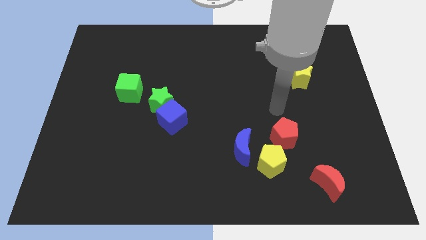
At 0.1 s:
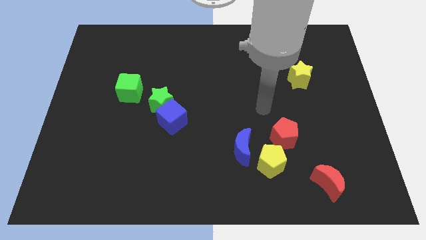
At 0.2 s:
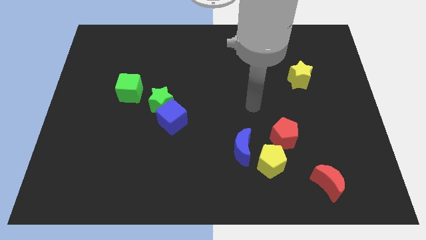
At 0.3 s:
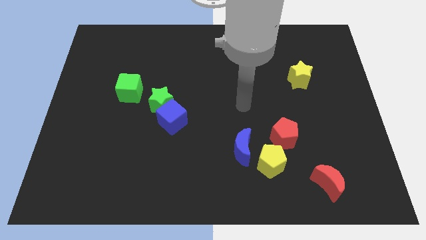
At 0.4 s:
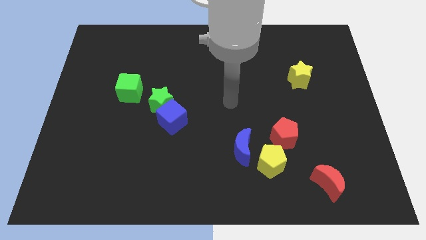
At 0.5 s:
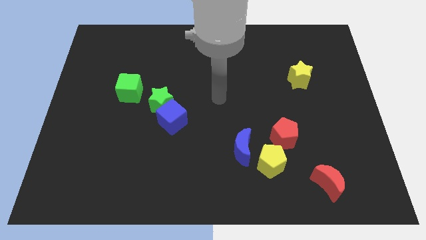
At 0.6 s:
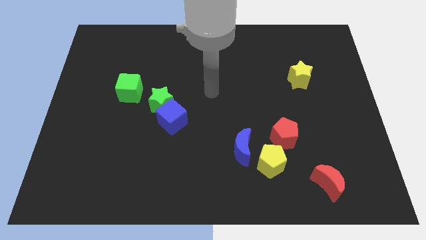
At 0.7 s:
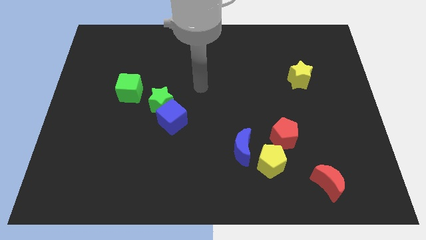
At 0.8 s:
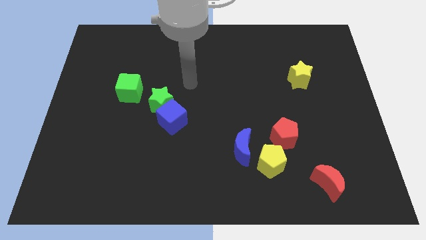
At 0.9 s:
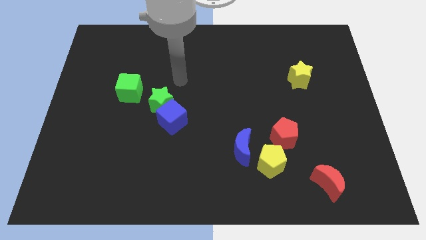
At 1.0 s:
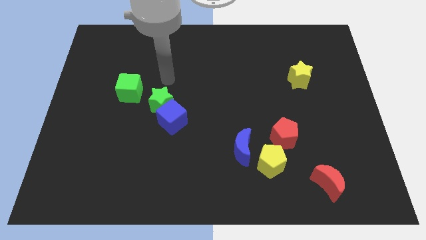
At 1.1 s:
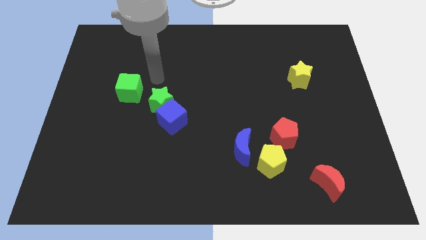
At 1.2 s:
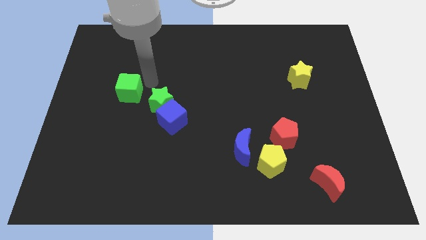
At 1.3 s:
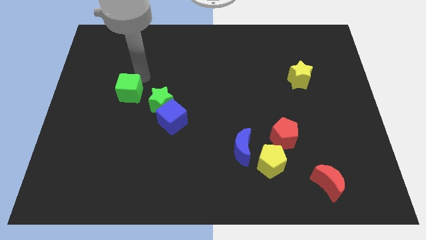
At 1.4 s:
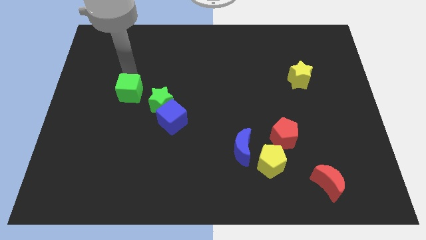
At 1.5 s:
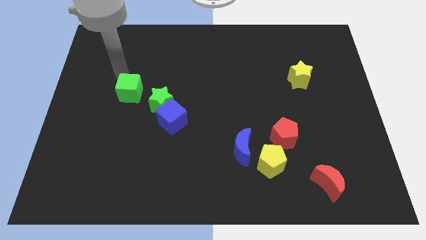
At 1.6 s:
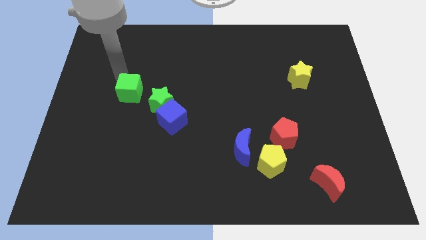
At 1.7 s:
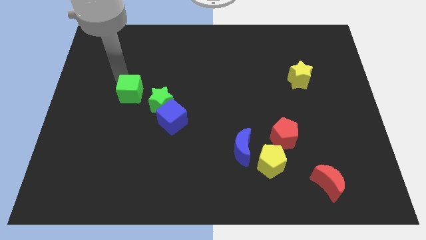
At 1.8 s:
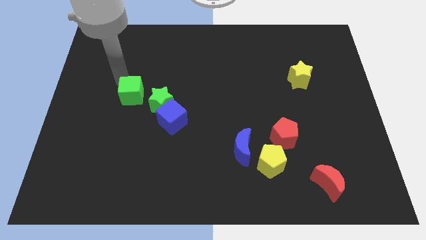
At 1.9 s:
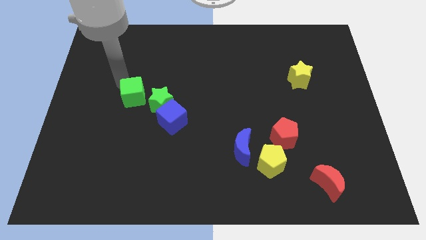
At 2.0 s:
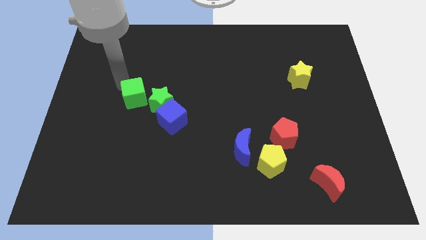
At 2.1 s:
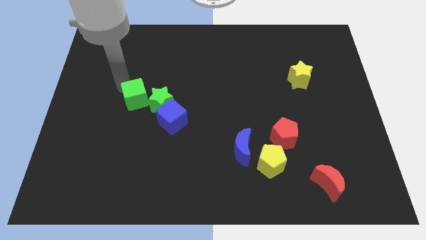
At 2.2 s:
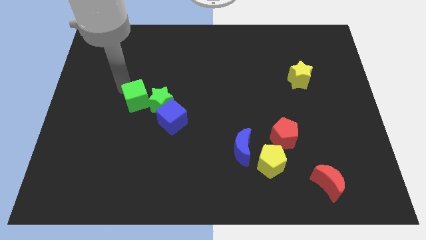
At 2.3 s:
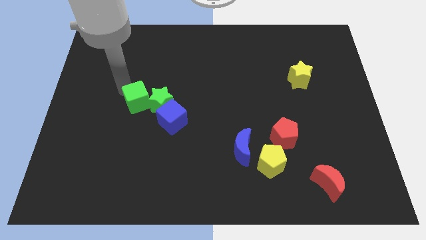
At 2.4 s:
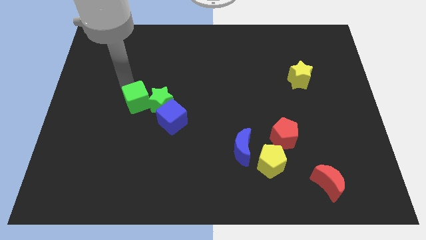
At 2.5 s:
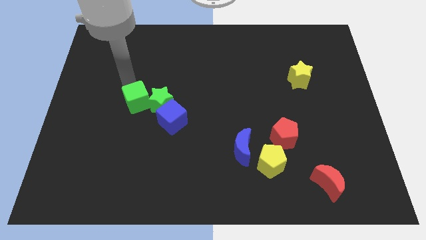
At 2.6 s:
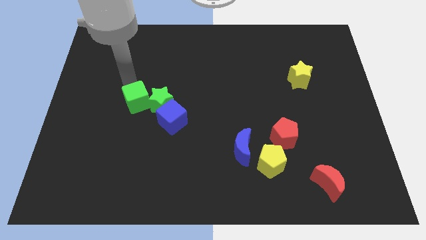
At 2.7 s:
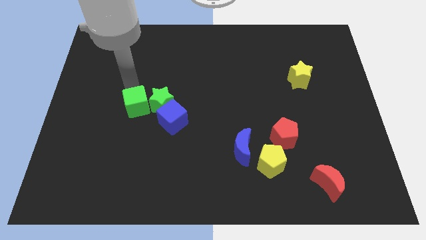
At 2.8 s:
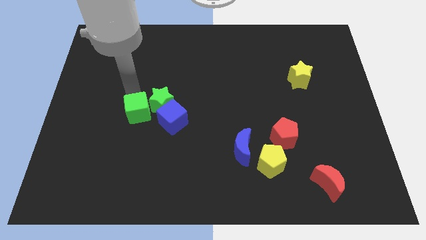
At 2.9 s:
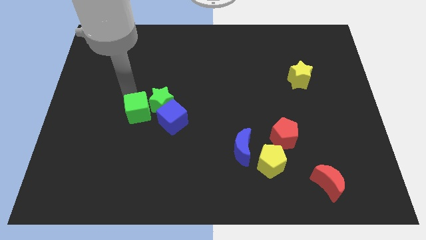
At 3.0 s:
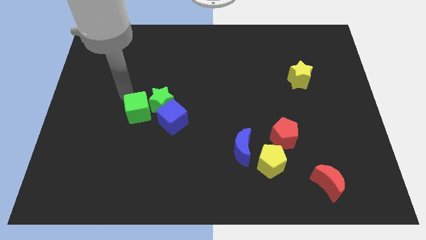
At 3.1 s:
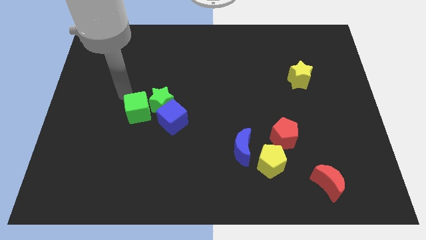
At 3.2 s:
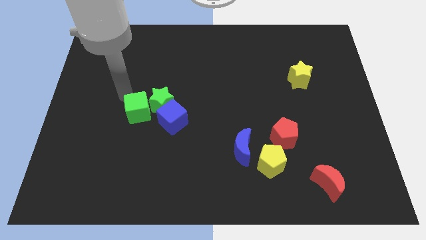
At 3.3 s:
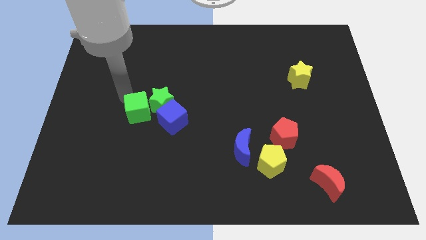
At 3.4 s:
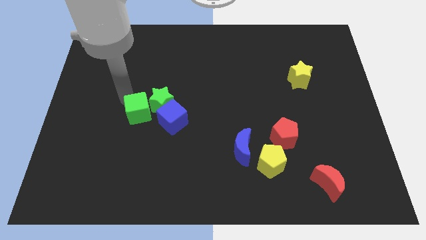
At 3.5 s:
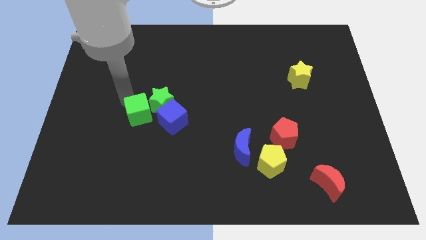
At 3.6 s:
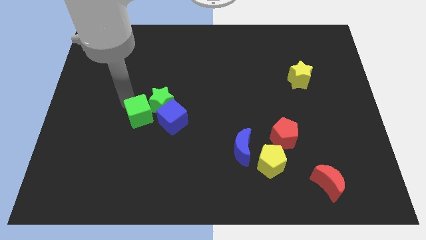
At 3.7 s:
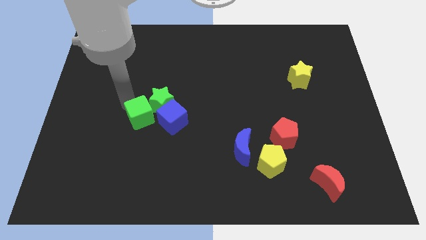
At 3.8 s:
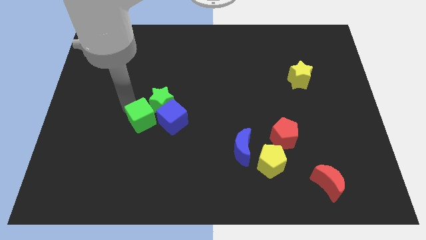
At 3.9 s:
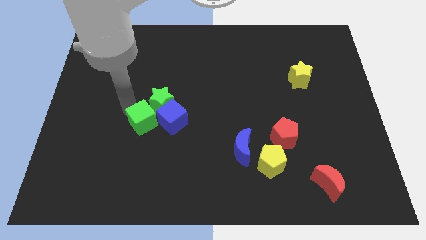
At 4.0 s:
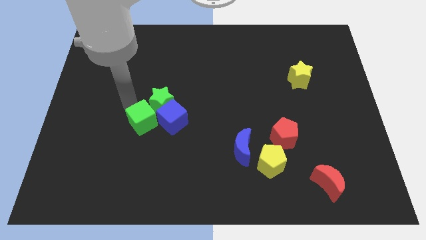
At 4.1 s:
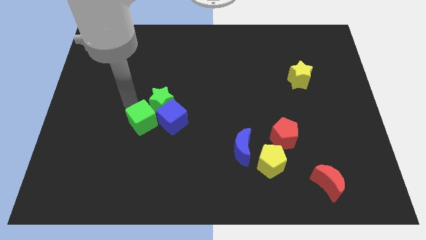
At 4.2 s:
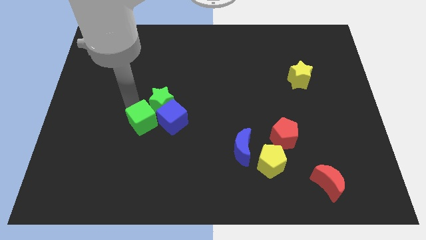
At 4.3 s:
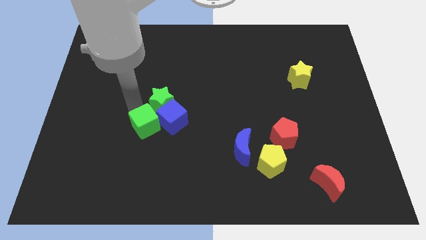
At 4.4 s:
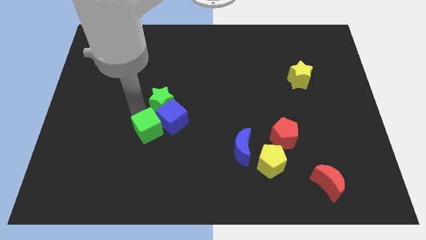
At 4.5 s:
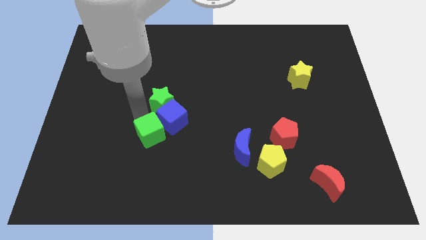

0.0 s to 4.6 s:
move the green cube to the bottom side of the blue cube

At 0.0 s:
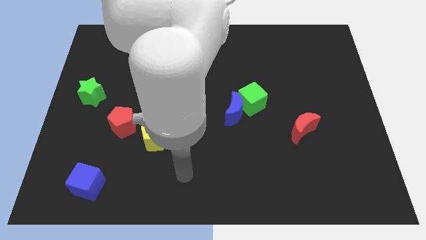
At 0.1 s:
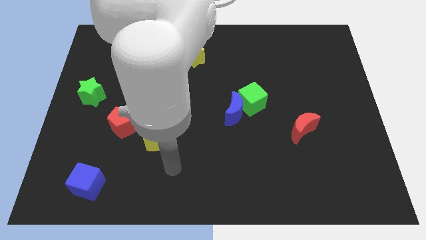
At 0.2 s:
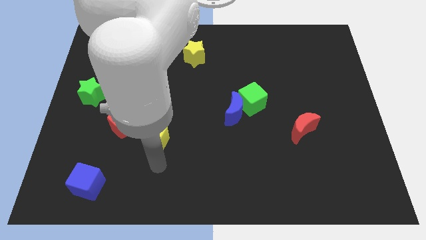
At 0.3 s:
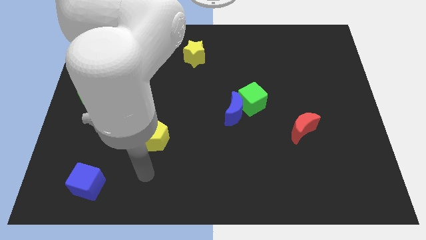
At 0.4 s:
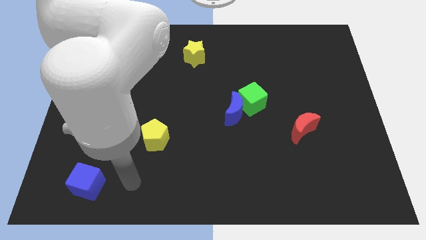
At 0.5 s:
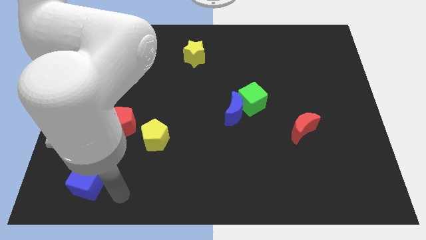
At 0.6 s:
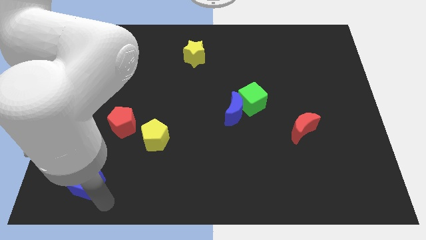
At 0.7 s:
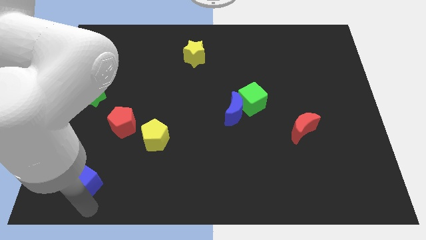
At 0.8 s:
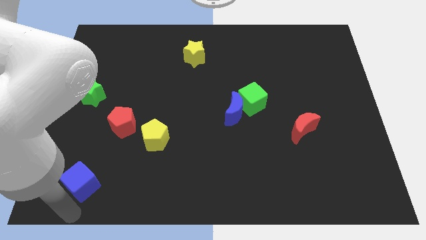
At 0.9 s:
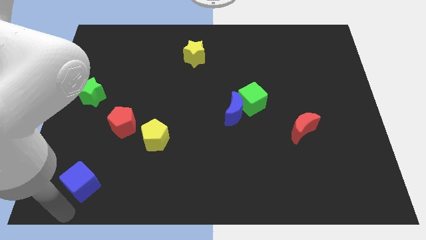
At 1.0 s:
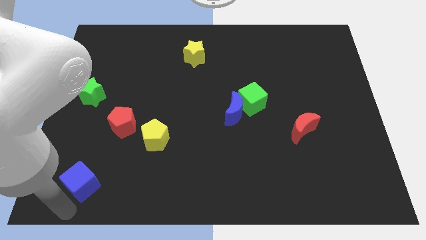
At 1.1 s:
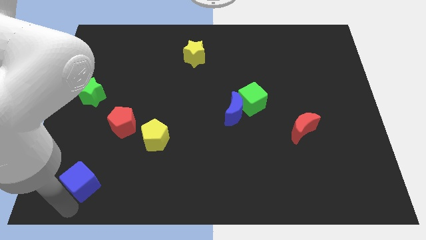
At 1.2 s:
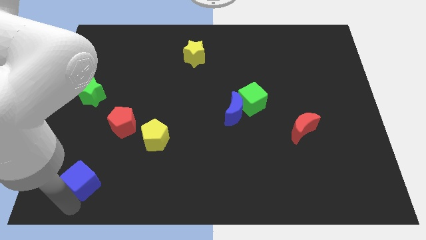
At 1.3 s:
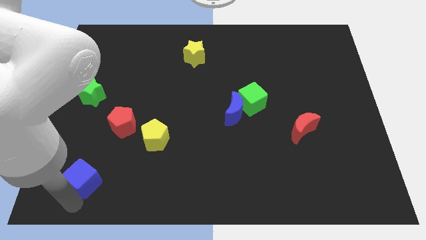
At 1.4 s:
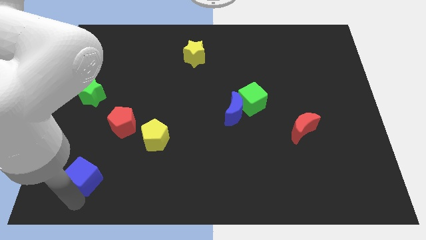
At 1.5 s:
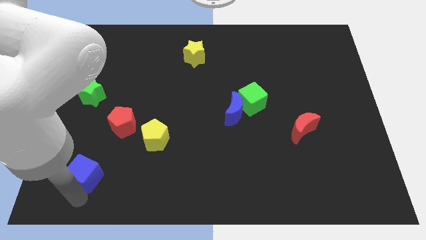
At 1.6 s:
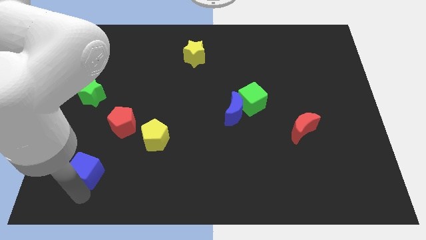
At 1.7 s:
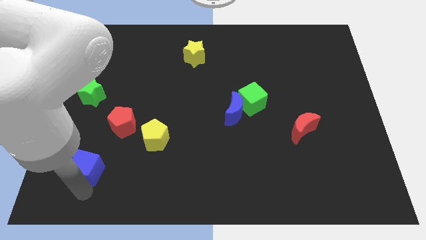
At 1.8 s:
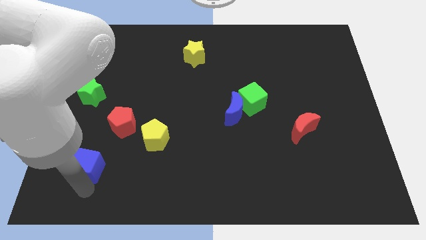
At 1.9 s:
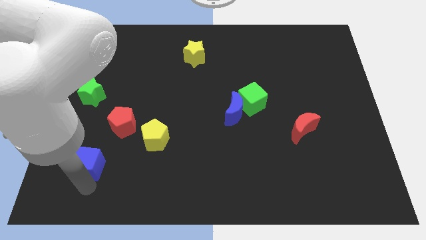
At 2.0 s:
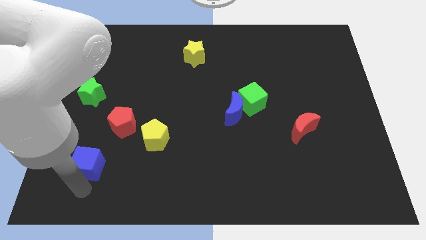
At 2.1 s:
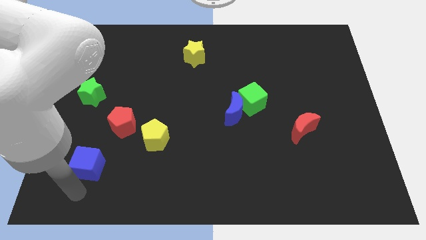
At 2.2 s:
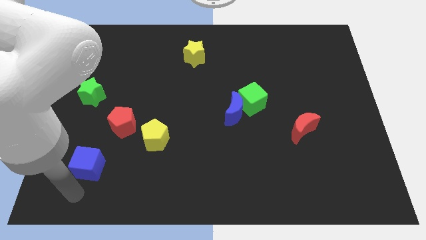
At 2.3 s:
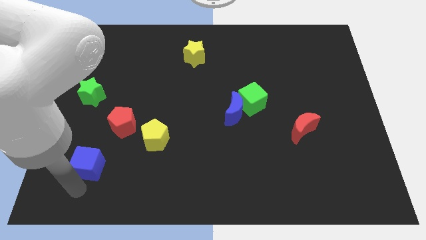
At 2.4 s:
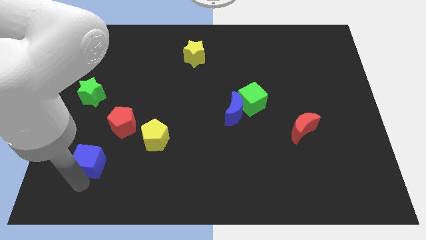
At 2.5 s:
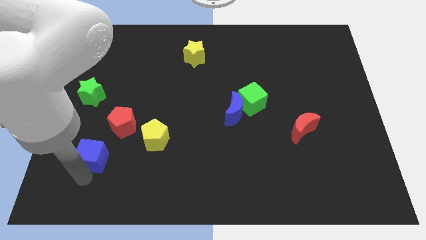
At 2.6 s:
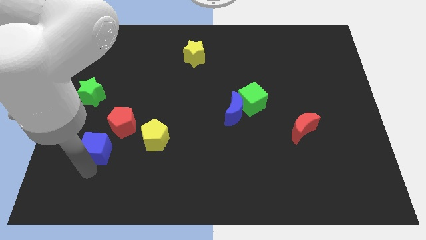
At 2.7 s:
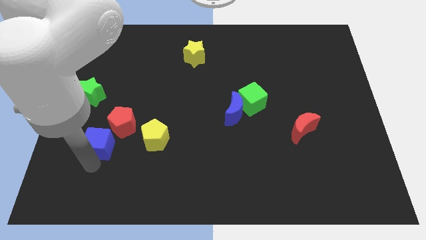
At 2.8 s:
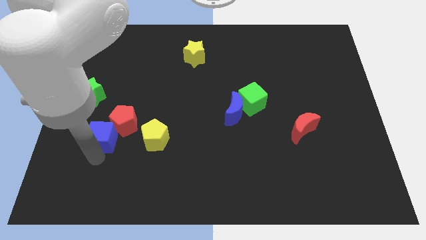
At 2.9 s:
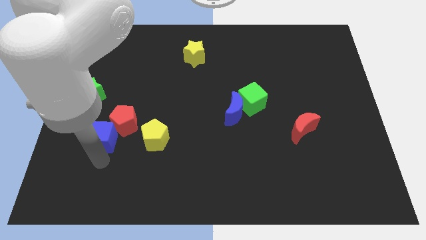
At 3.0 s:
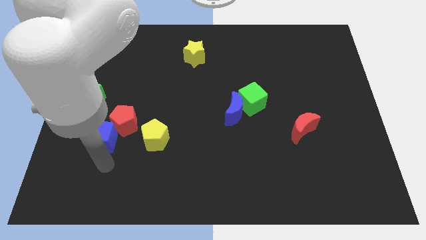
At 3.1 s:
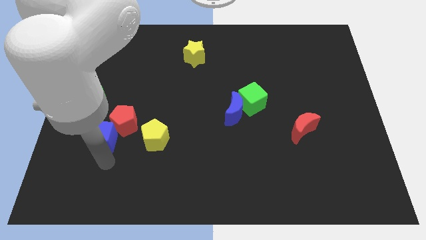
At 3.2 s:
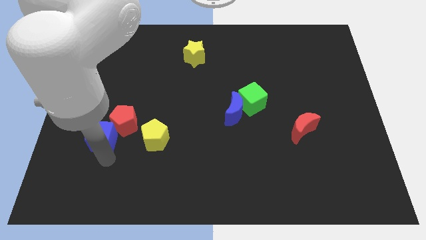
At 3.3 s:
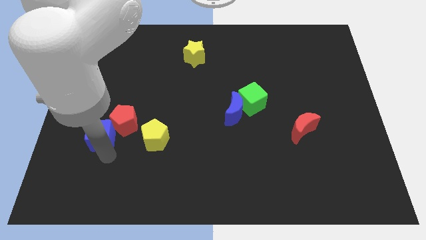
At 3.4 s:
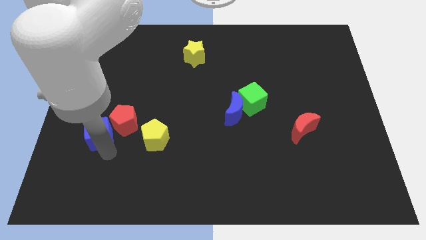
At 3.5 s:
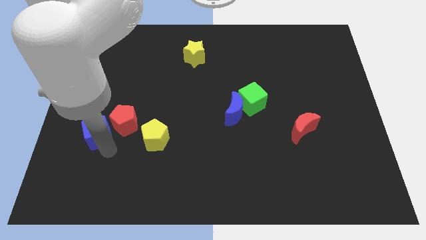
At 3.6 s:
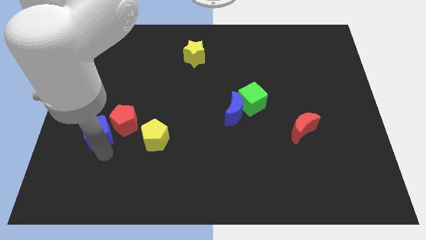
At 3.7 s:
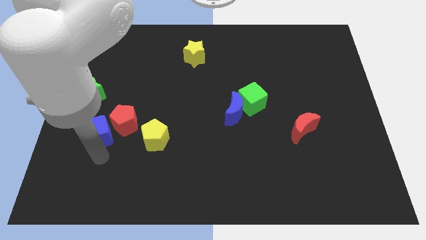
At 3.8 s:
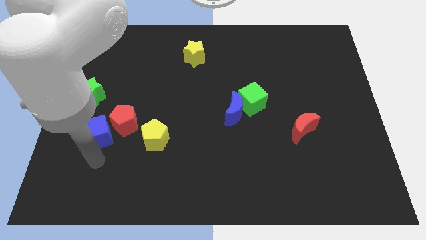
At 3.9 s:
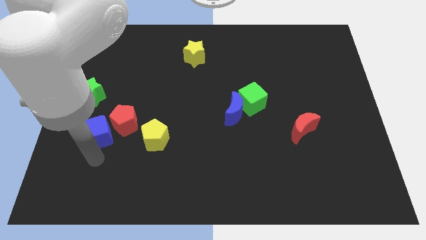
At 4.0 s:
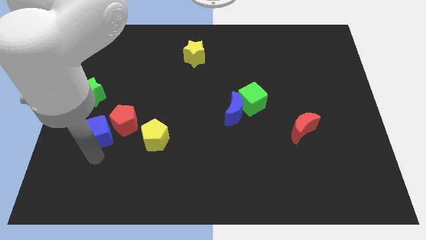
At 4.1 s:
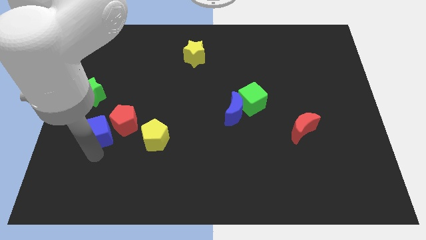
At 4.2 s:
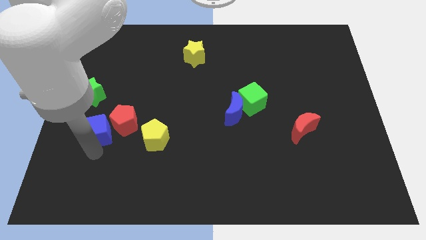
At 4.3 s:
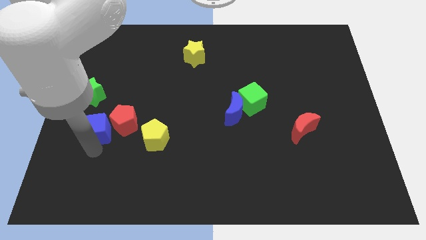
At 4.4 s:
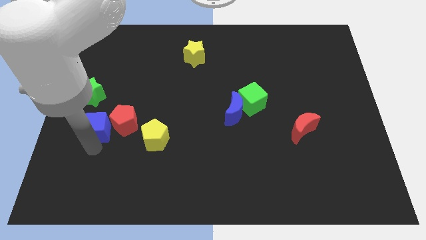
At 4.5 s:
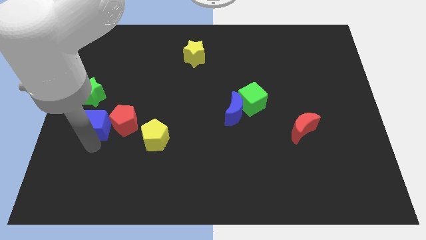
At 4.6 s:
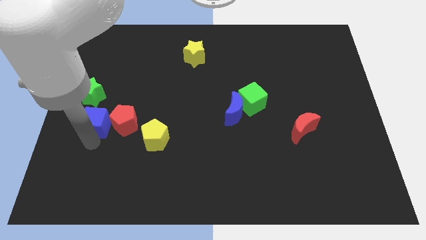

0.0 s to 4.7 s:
push the blue cube to the top left of the red pentagon
